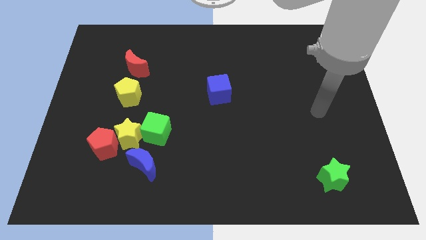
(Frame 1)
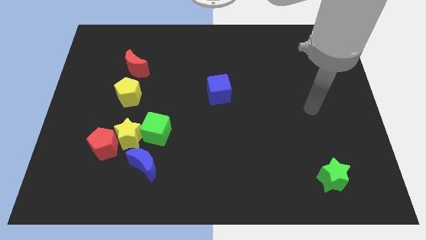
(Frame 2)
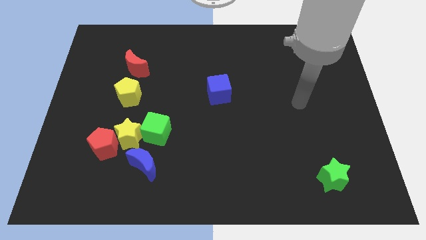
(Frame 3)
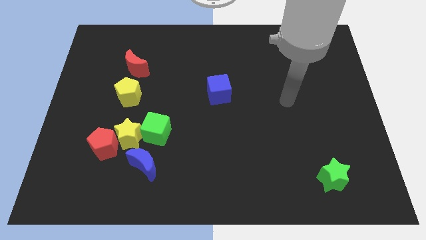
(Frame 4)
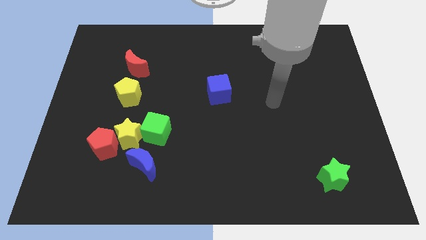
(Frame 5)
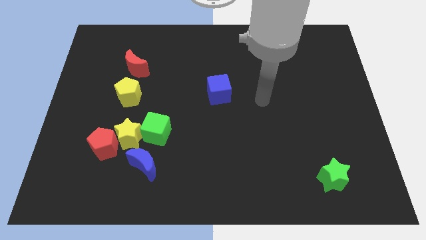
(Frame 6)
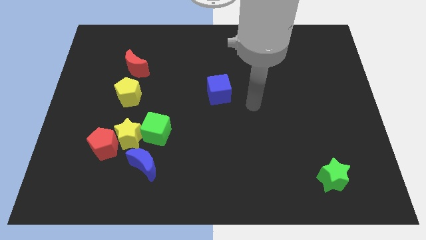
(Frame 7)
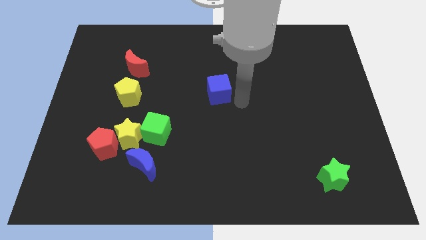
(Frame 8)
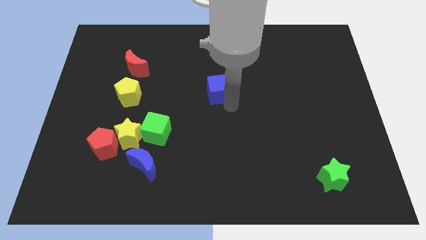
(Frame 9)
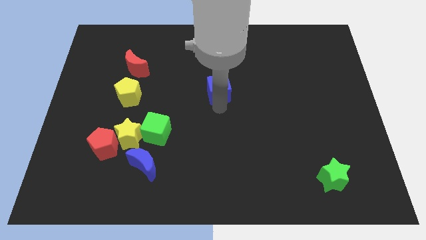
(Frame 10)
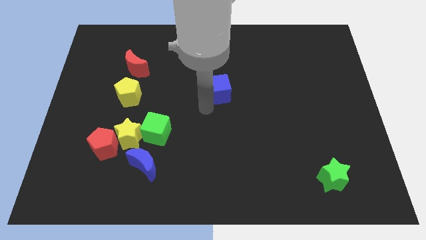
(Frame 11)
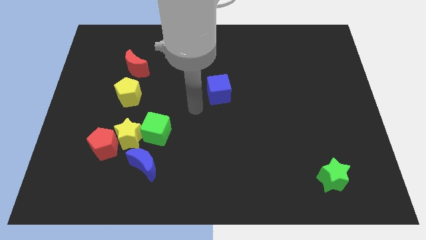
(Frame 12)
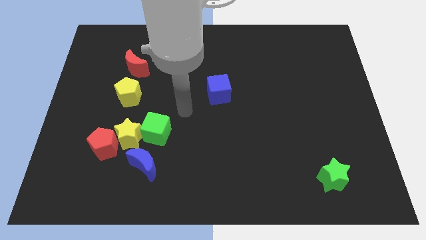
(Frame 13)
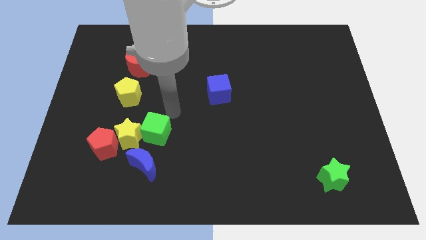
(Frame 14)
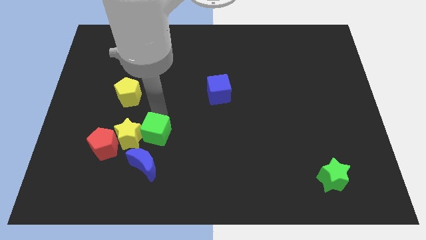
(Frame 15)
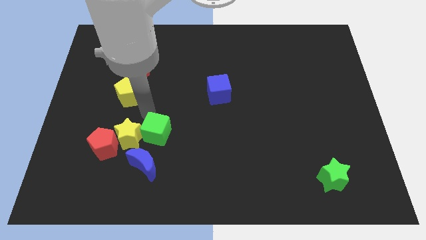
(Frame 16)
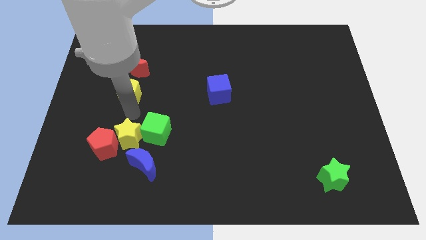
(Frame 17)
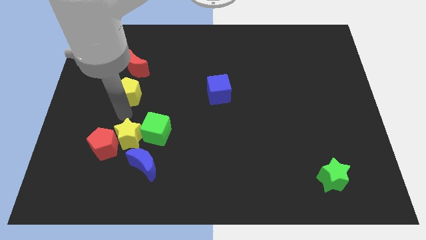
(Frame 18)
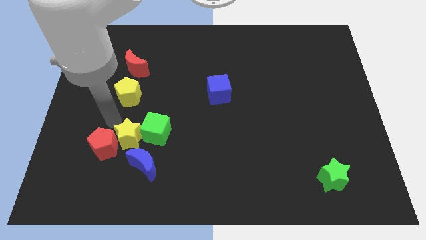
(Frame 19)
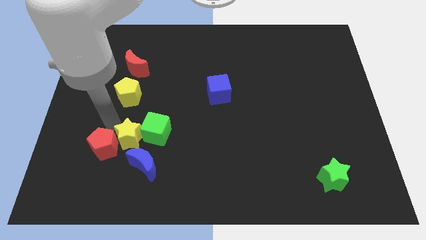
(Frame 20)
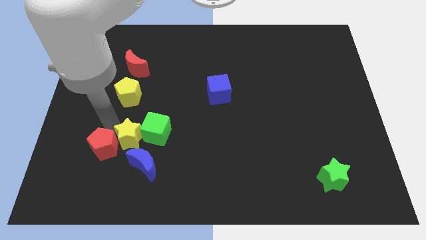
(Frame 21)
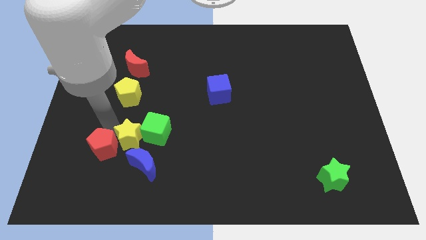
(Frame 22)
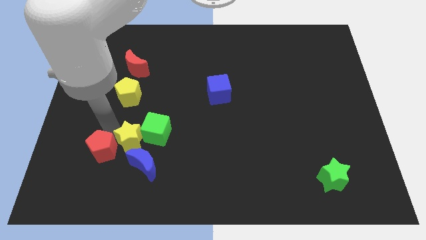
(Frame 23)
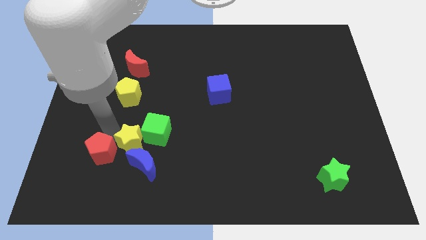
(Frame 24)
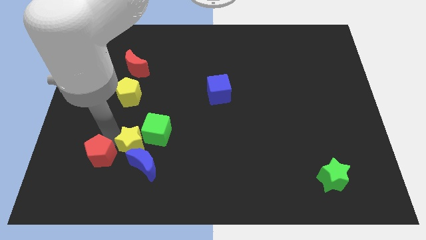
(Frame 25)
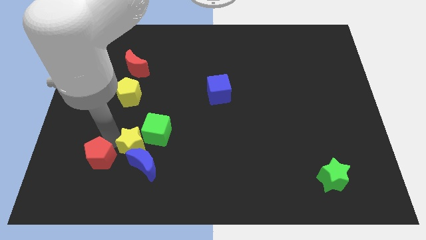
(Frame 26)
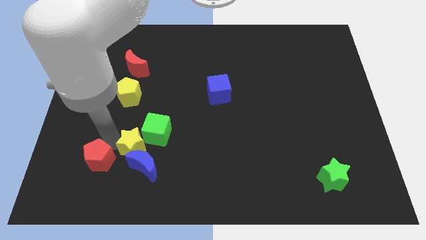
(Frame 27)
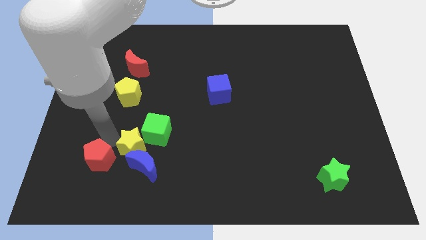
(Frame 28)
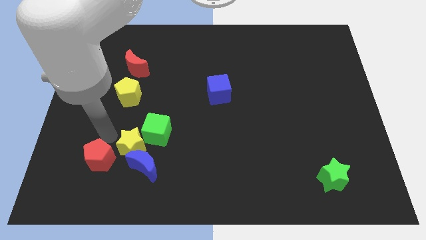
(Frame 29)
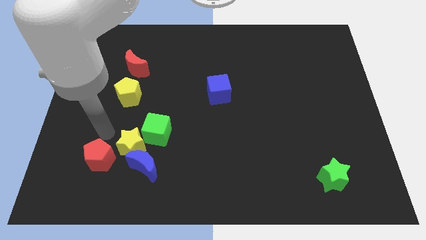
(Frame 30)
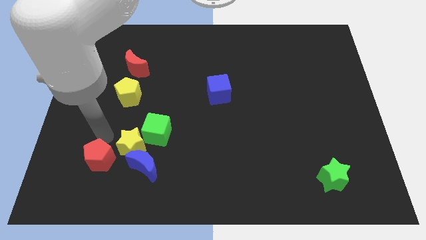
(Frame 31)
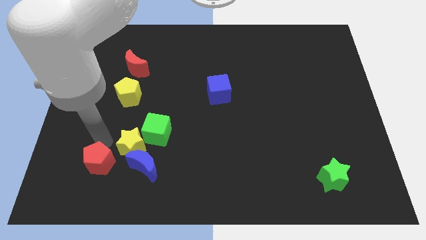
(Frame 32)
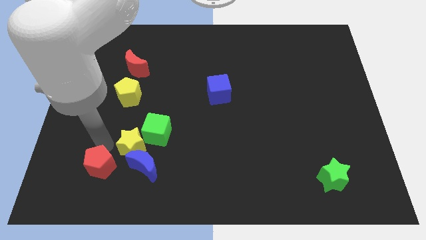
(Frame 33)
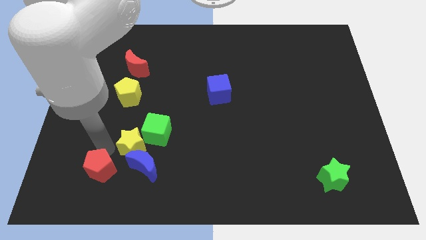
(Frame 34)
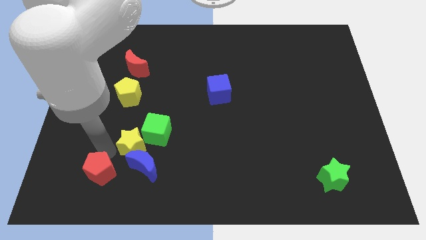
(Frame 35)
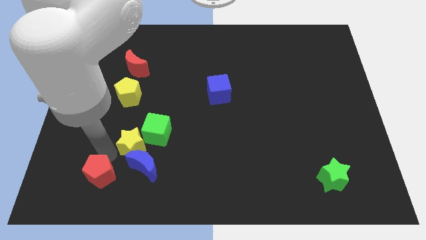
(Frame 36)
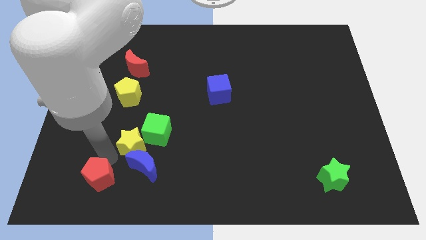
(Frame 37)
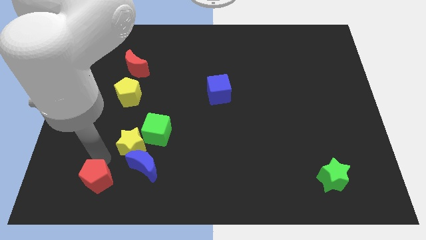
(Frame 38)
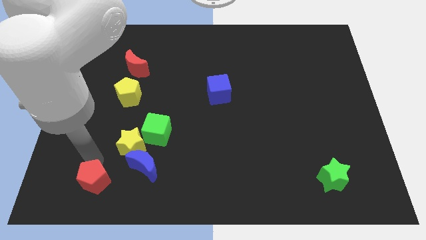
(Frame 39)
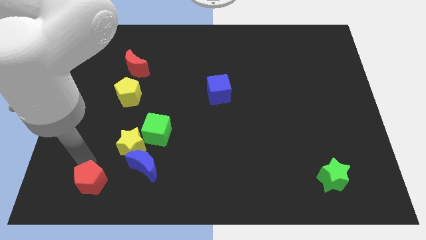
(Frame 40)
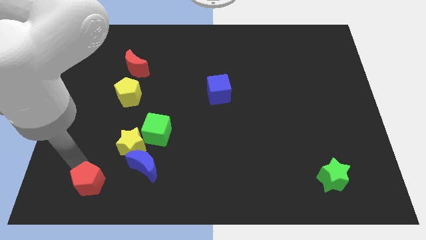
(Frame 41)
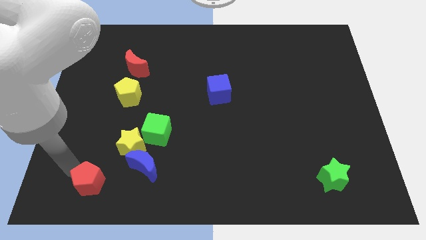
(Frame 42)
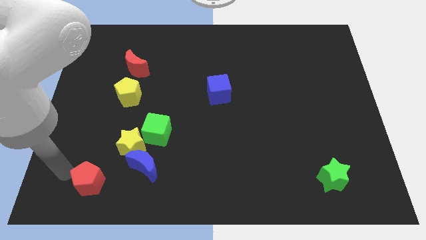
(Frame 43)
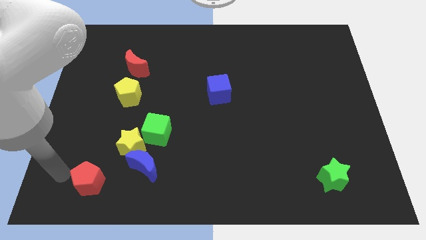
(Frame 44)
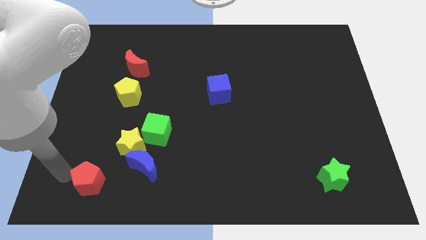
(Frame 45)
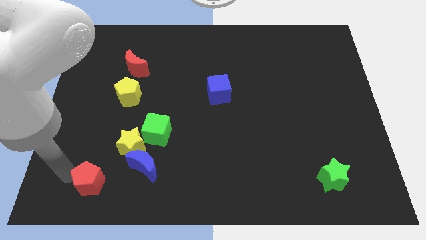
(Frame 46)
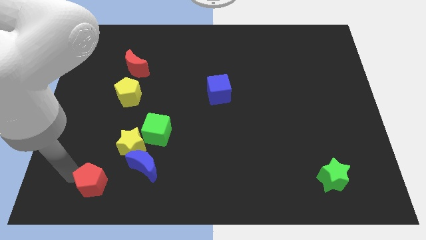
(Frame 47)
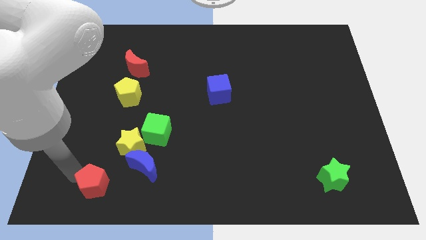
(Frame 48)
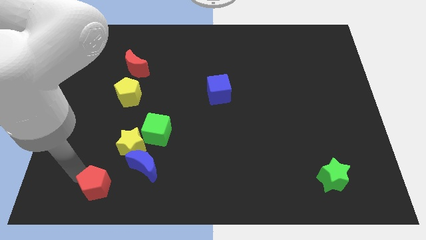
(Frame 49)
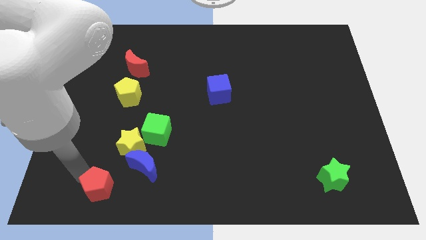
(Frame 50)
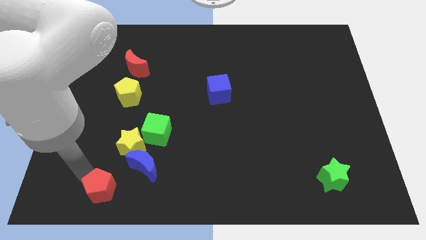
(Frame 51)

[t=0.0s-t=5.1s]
move the red pentagon below the yellow star

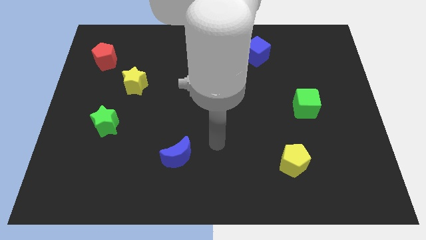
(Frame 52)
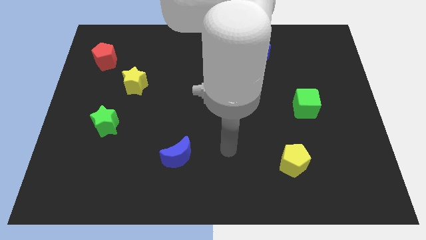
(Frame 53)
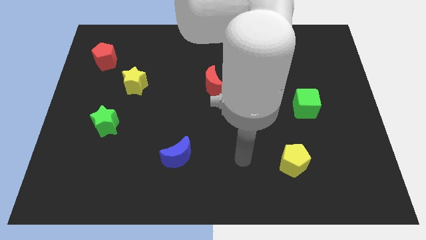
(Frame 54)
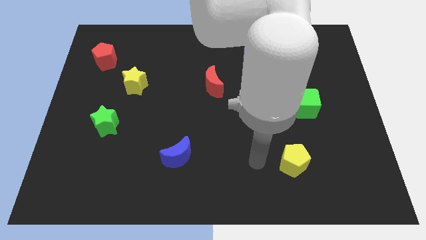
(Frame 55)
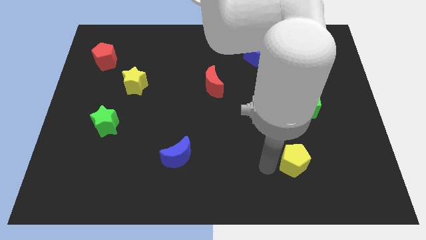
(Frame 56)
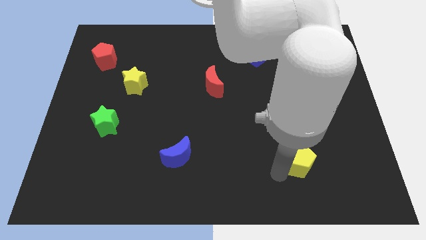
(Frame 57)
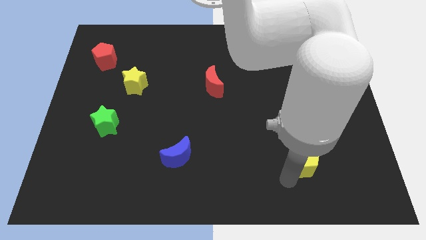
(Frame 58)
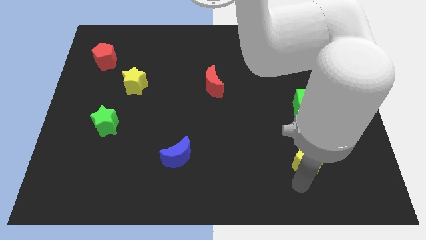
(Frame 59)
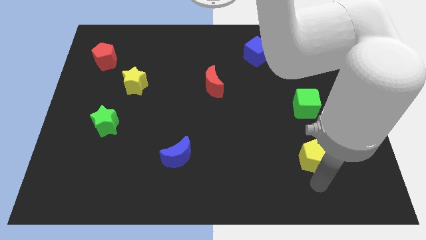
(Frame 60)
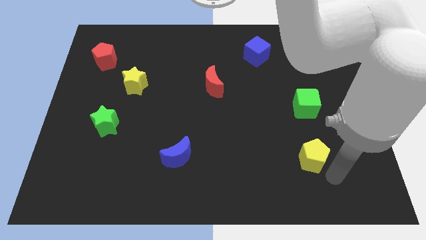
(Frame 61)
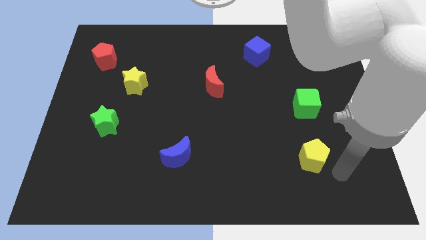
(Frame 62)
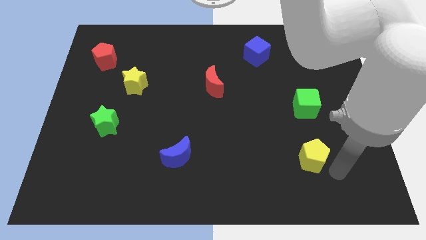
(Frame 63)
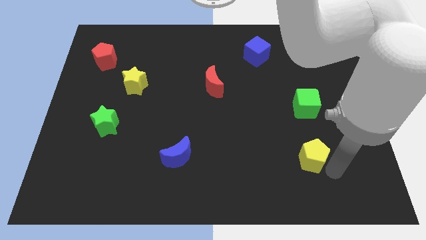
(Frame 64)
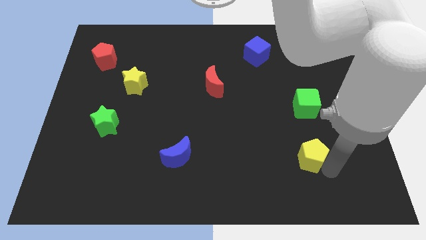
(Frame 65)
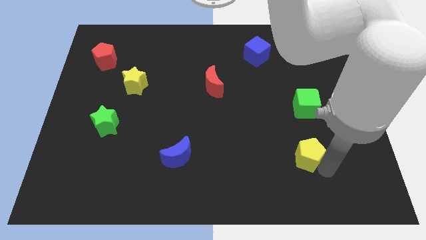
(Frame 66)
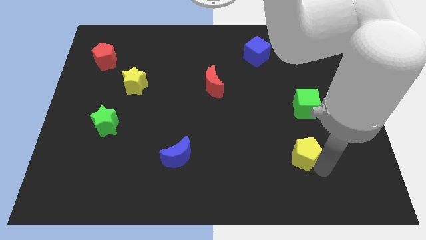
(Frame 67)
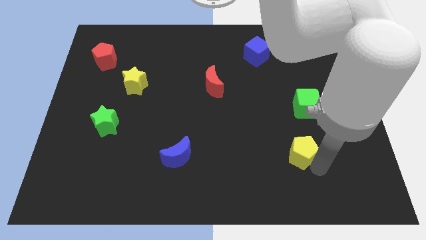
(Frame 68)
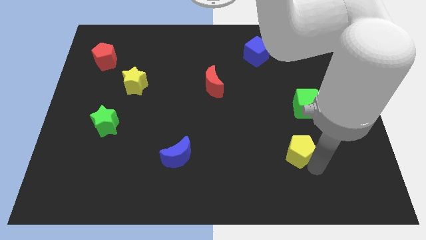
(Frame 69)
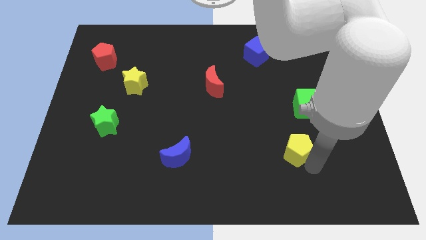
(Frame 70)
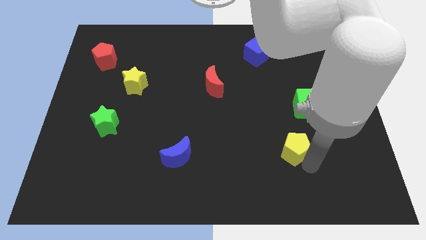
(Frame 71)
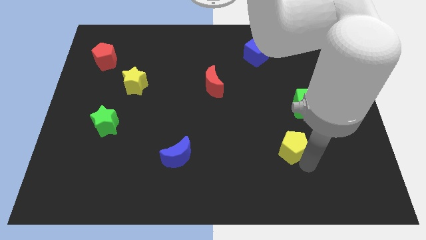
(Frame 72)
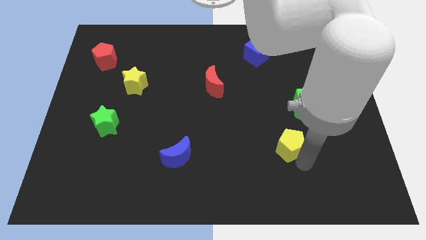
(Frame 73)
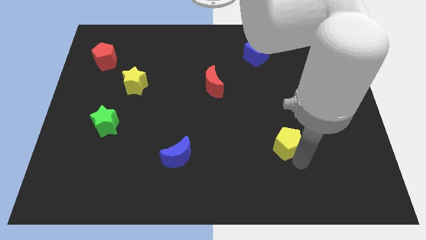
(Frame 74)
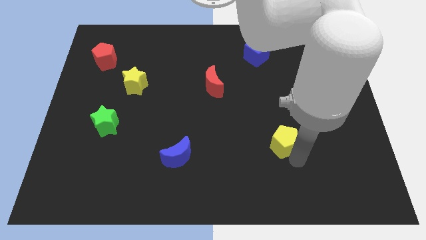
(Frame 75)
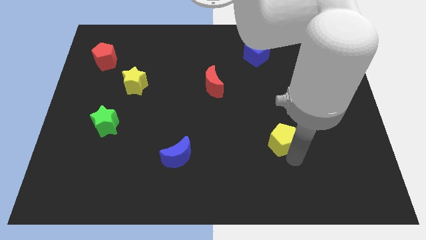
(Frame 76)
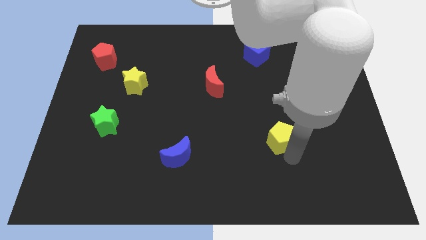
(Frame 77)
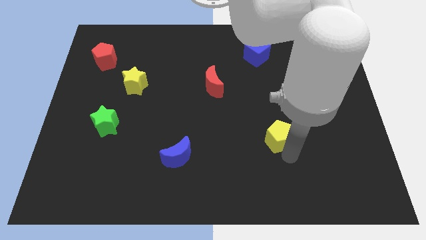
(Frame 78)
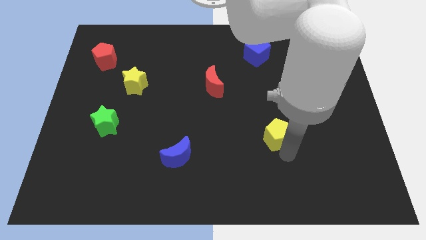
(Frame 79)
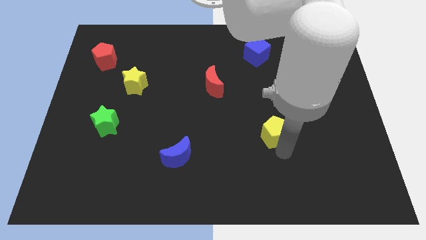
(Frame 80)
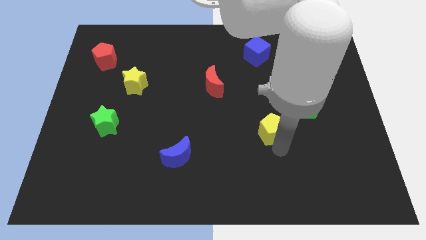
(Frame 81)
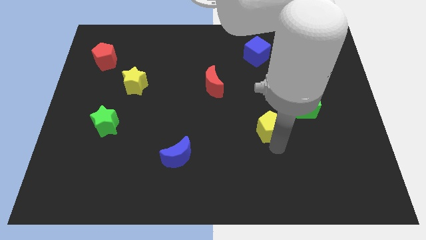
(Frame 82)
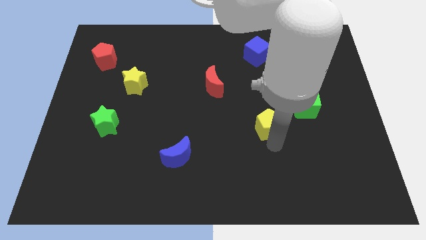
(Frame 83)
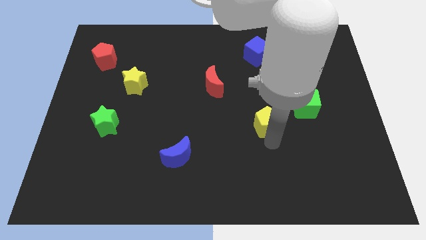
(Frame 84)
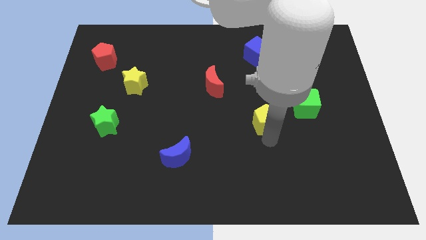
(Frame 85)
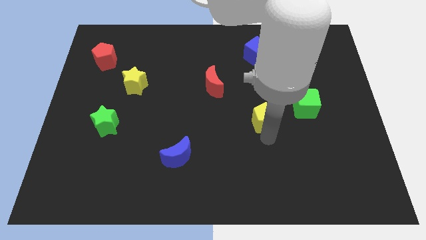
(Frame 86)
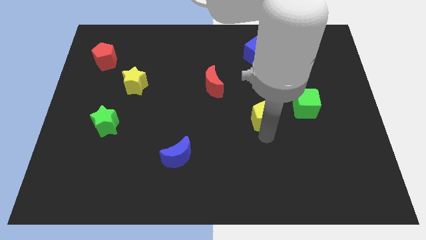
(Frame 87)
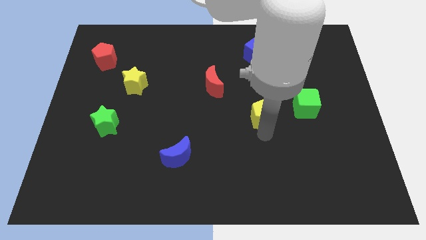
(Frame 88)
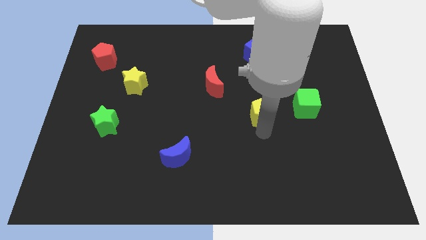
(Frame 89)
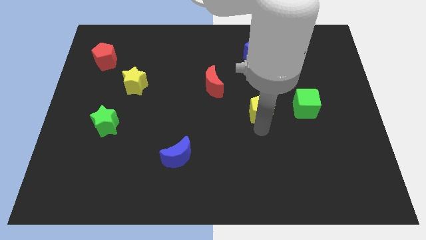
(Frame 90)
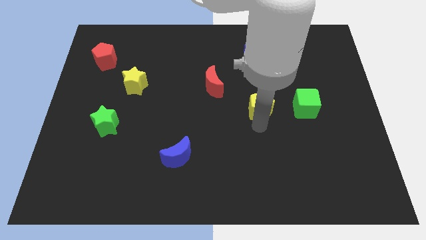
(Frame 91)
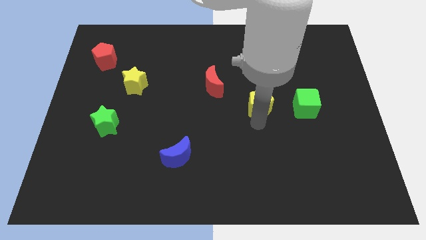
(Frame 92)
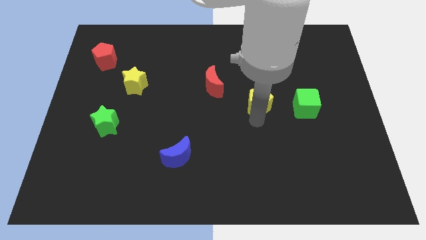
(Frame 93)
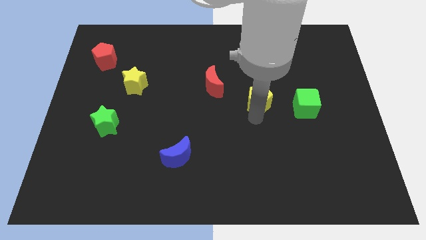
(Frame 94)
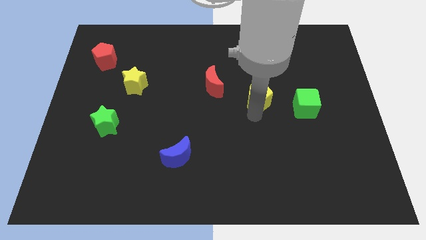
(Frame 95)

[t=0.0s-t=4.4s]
move the yellow pentagon to the right of the red moon
